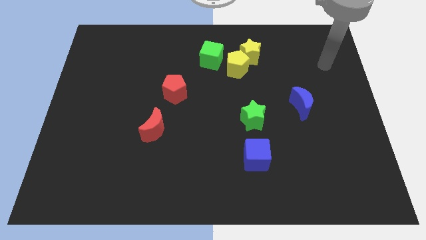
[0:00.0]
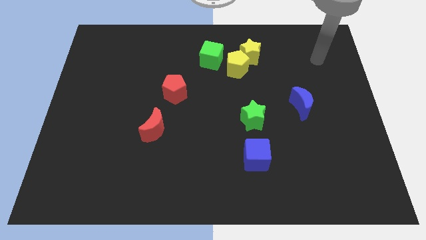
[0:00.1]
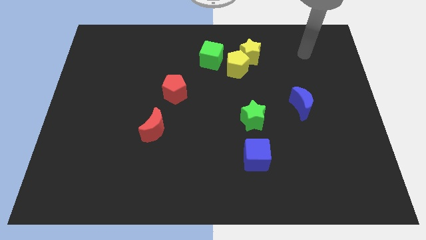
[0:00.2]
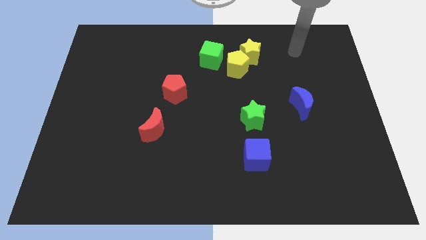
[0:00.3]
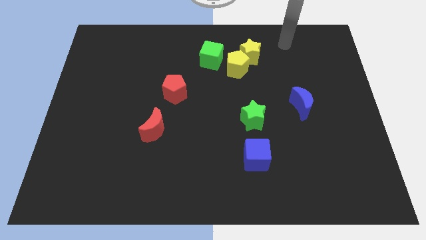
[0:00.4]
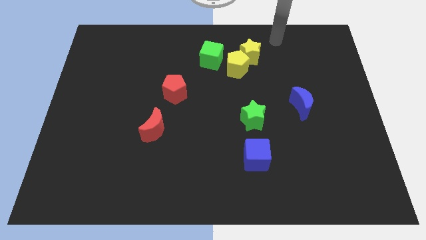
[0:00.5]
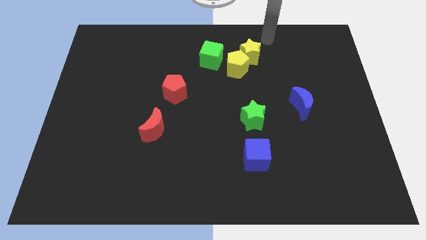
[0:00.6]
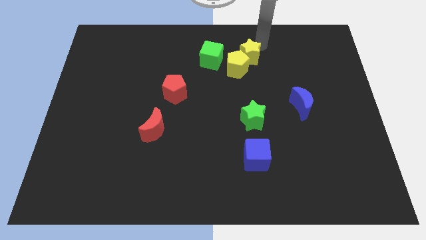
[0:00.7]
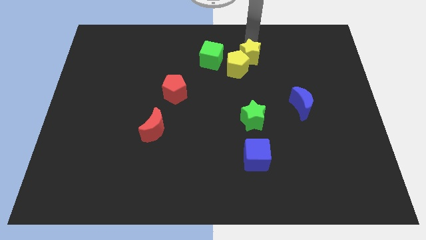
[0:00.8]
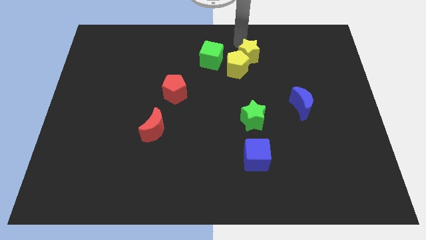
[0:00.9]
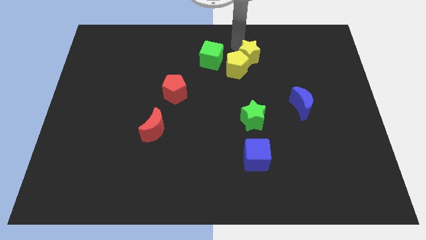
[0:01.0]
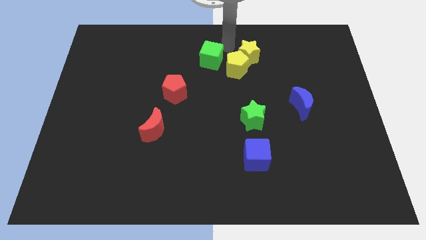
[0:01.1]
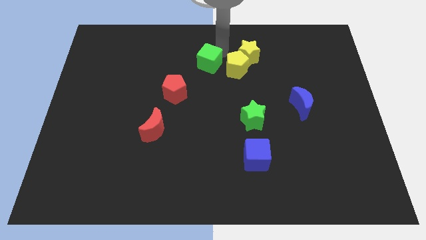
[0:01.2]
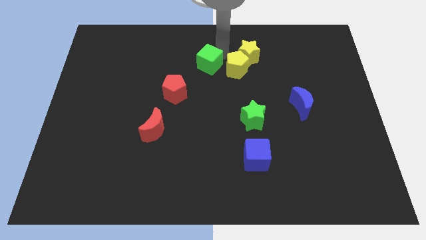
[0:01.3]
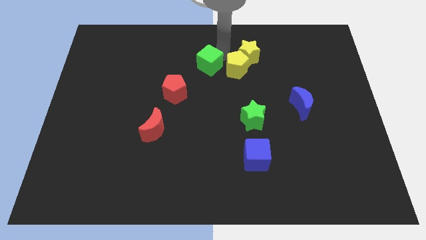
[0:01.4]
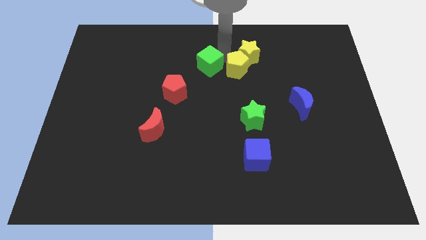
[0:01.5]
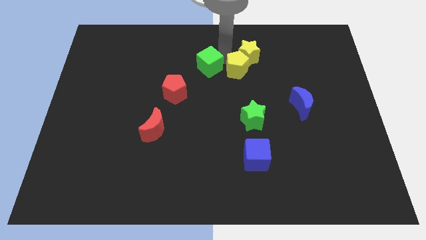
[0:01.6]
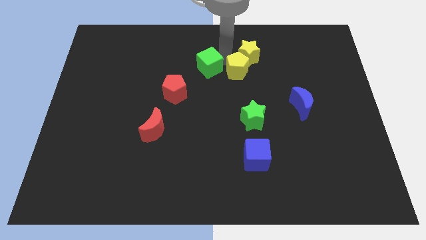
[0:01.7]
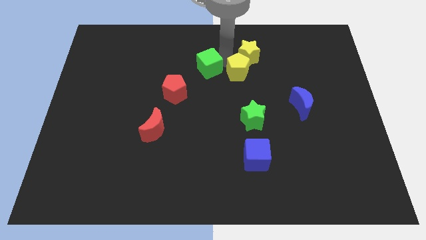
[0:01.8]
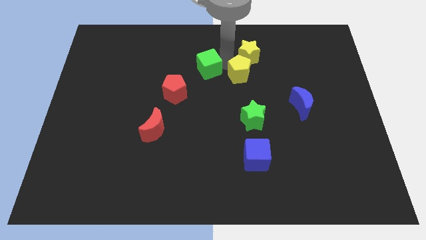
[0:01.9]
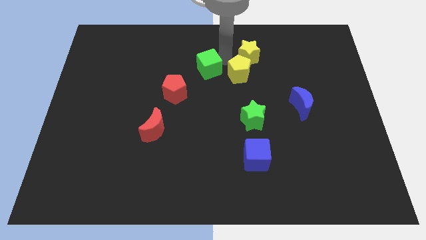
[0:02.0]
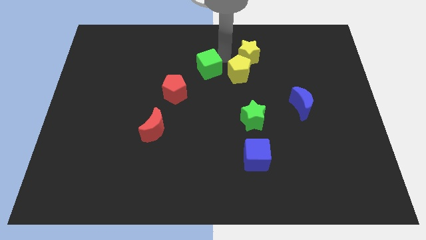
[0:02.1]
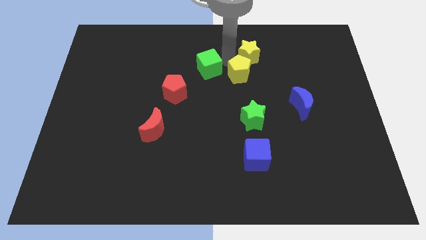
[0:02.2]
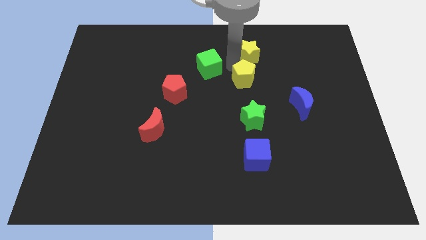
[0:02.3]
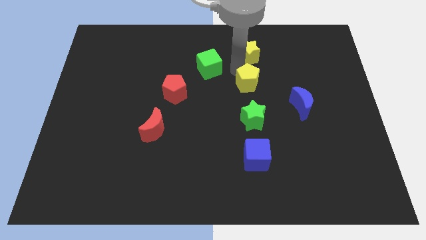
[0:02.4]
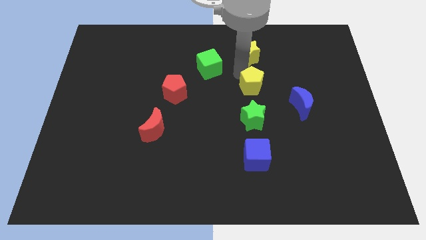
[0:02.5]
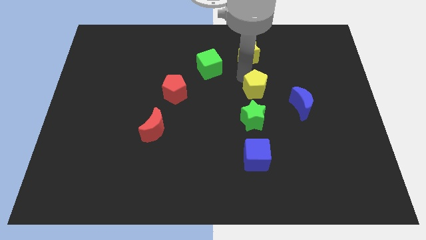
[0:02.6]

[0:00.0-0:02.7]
pull the yellow pentagon apart from the yellow star and green cube

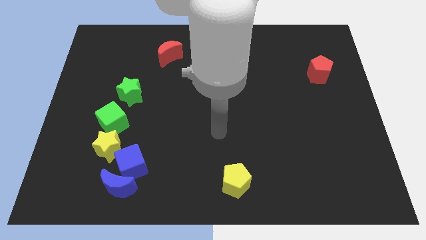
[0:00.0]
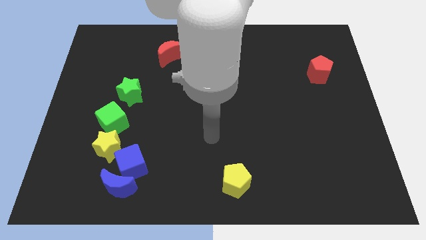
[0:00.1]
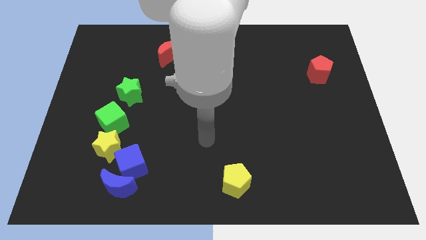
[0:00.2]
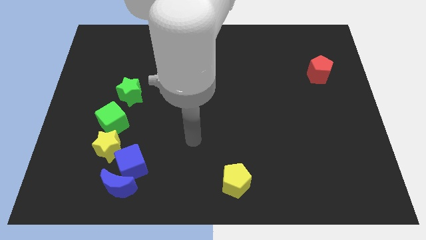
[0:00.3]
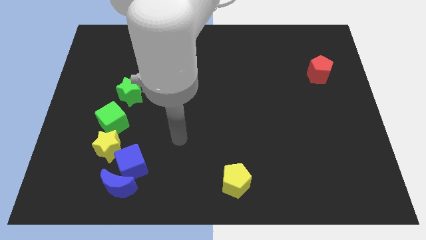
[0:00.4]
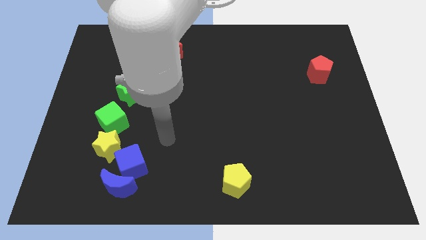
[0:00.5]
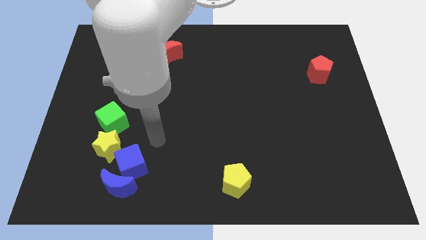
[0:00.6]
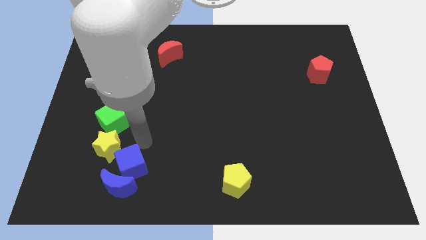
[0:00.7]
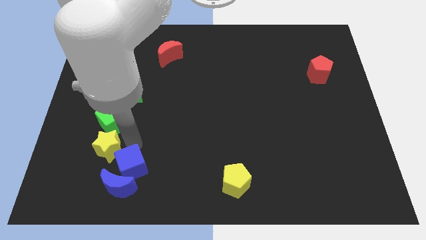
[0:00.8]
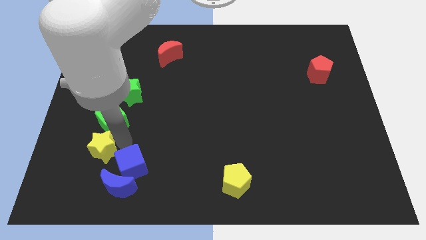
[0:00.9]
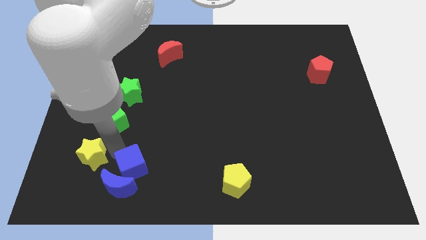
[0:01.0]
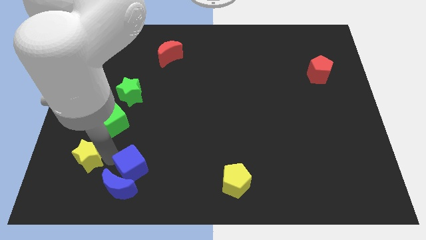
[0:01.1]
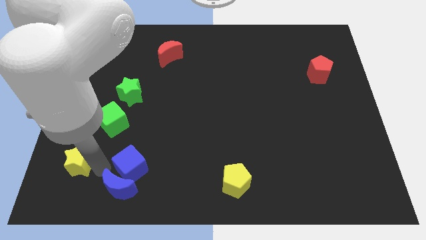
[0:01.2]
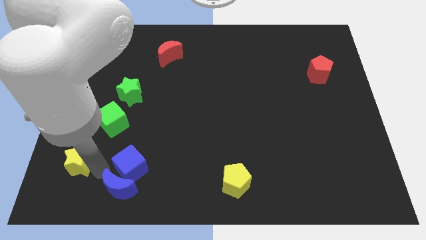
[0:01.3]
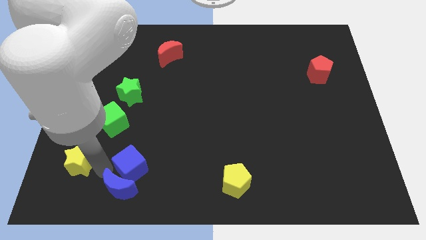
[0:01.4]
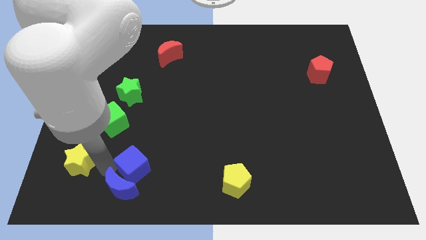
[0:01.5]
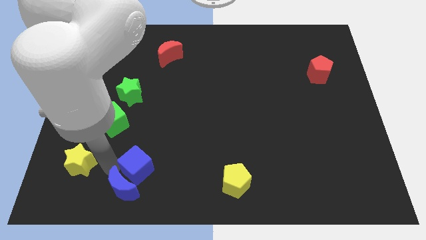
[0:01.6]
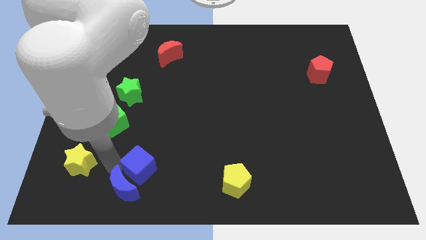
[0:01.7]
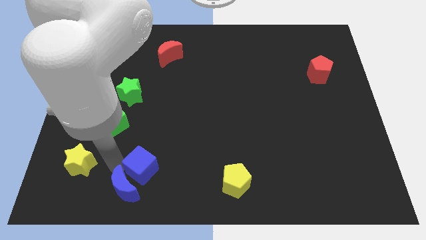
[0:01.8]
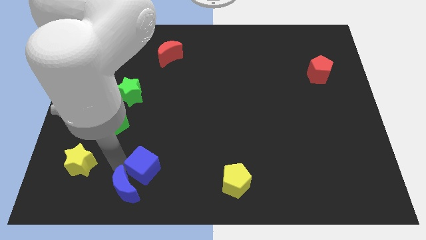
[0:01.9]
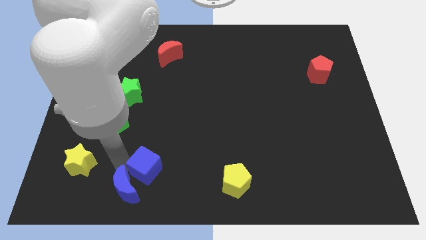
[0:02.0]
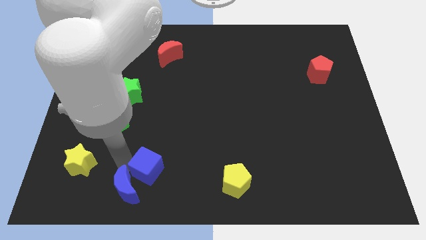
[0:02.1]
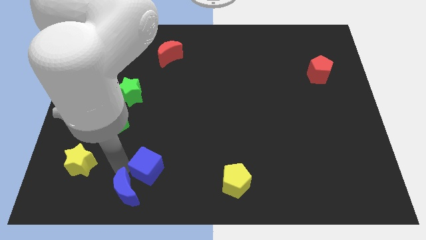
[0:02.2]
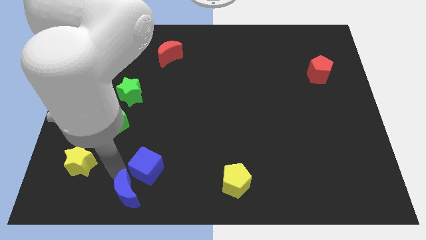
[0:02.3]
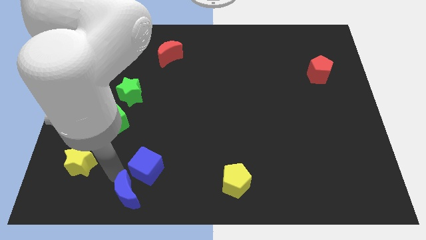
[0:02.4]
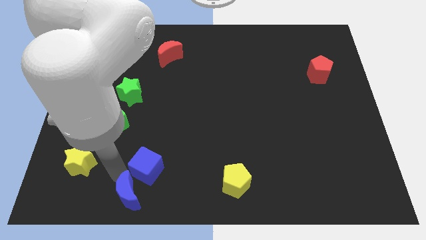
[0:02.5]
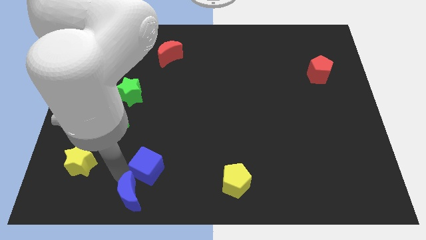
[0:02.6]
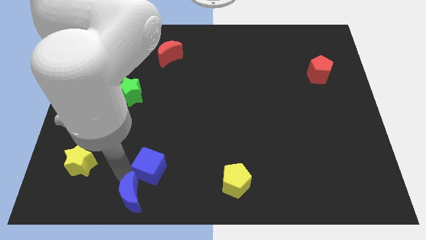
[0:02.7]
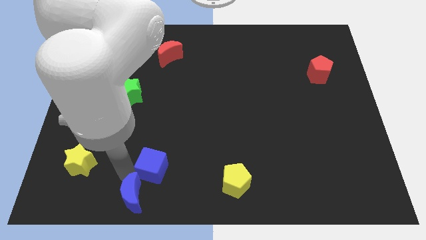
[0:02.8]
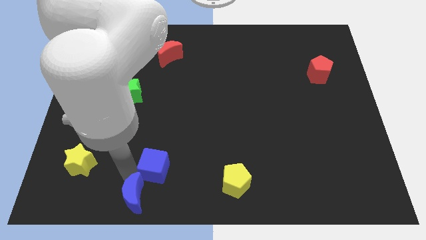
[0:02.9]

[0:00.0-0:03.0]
pull the blue cube apart from the blue moon and yellow star

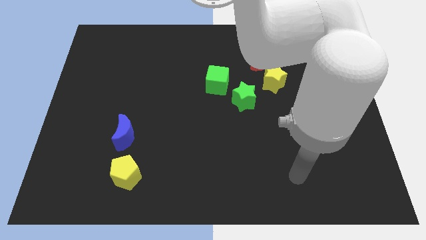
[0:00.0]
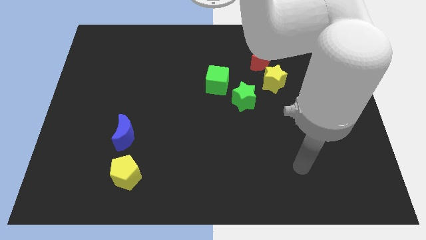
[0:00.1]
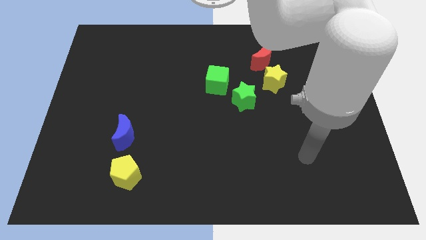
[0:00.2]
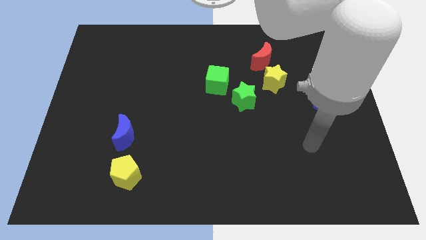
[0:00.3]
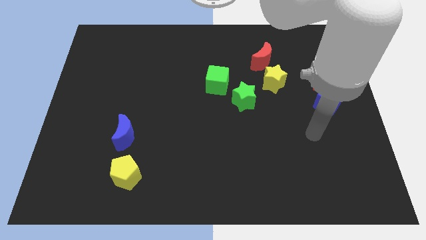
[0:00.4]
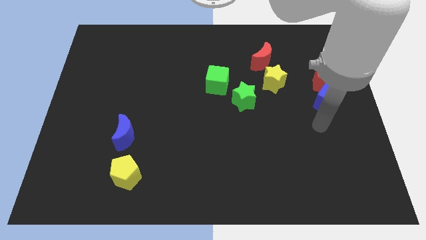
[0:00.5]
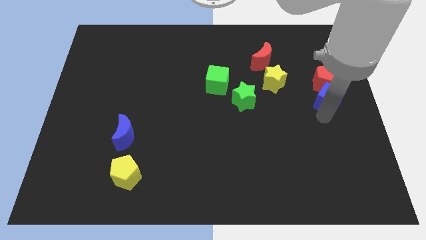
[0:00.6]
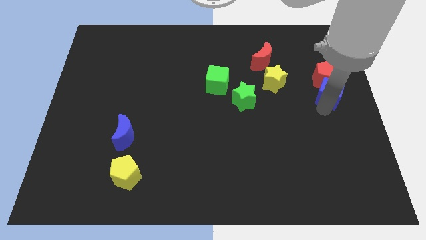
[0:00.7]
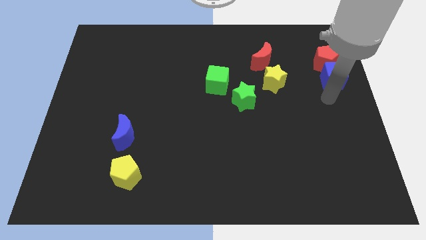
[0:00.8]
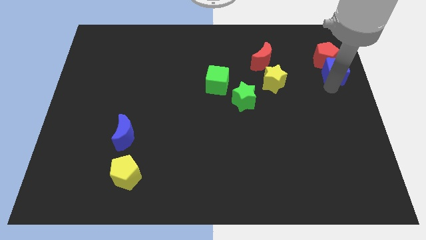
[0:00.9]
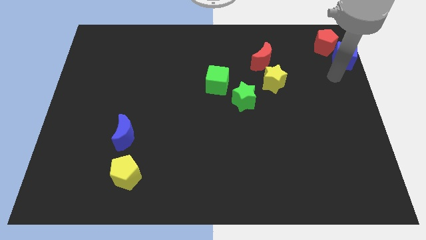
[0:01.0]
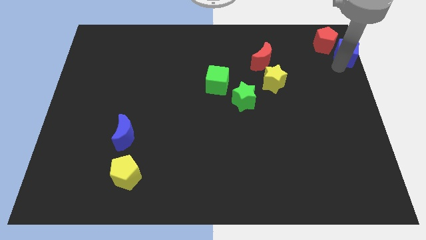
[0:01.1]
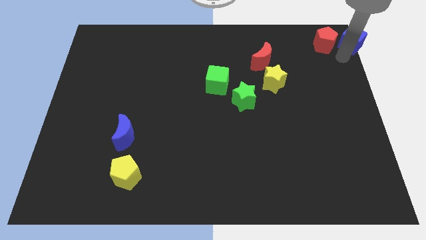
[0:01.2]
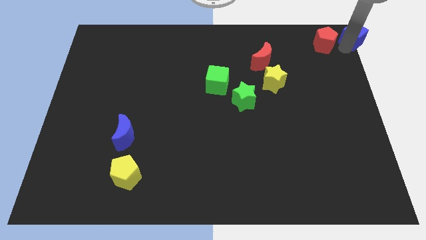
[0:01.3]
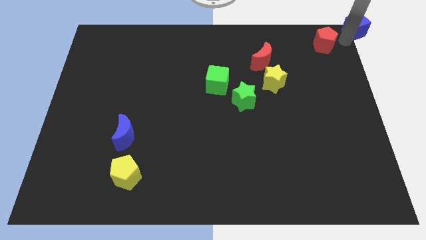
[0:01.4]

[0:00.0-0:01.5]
move the red pentagon away from the blue cube

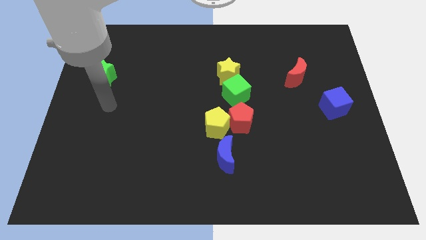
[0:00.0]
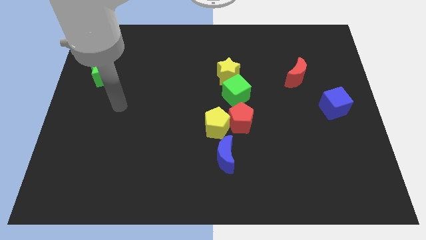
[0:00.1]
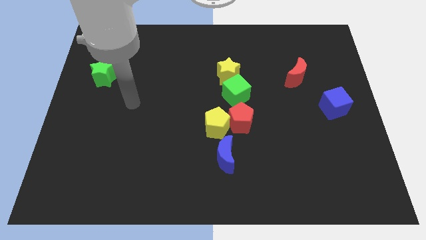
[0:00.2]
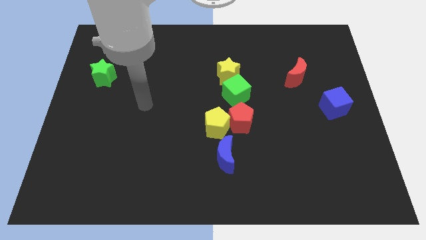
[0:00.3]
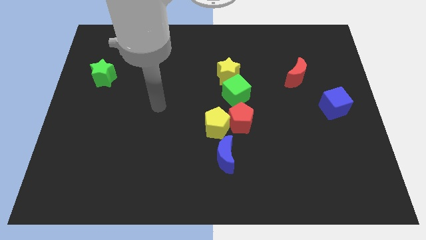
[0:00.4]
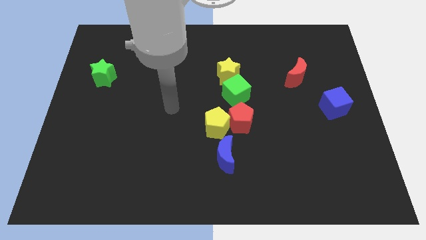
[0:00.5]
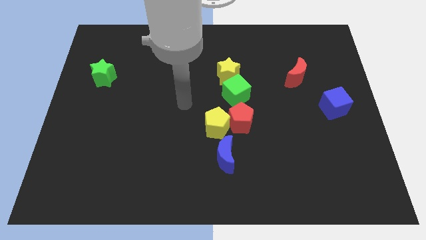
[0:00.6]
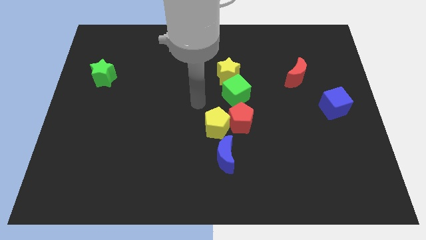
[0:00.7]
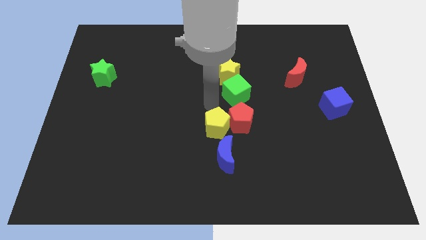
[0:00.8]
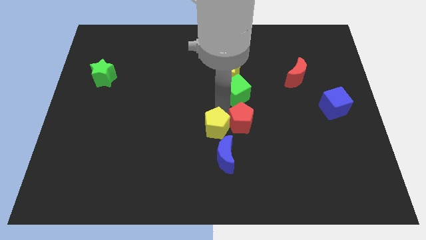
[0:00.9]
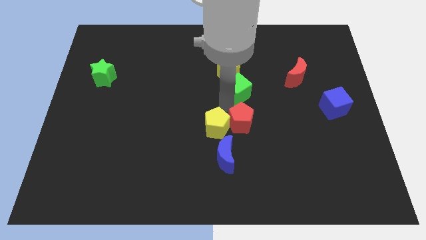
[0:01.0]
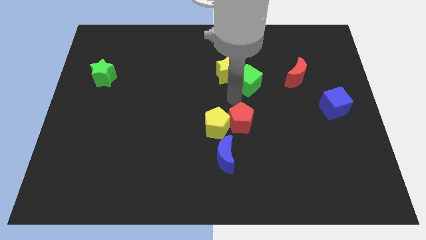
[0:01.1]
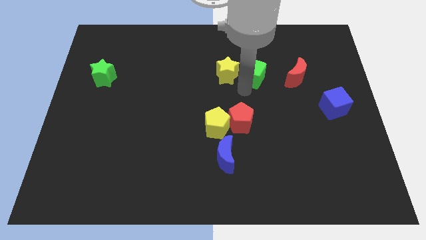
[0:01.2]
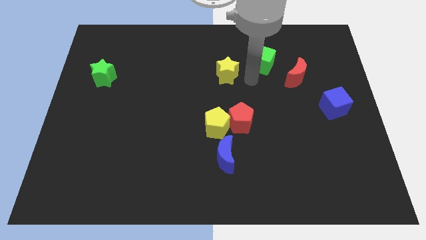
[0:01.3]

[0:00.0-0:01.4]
separate the yellow star from the green cube

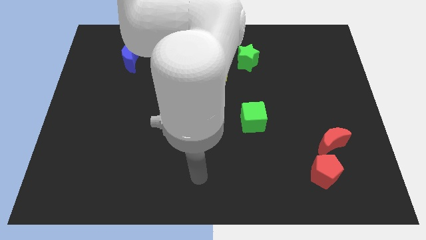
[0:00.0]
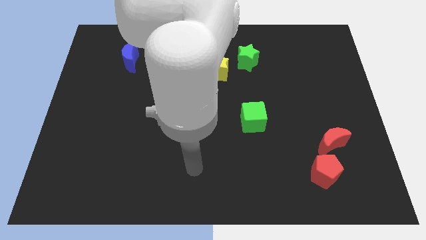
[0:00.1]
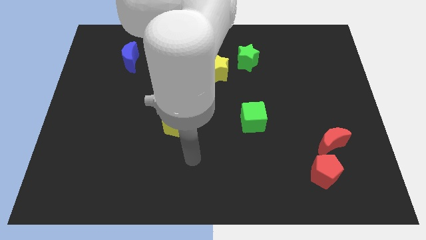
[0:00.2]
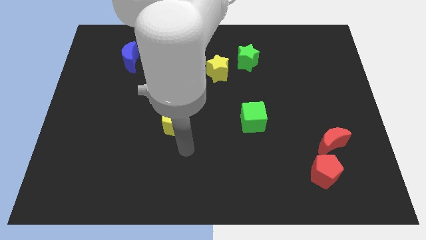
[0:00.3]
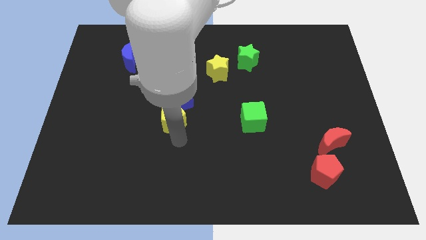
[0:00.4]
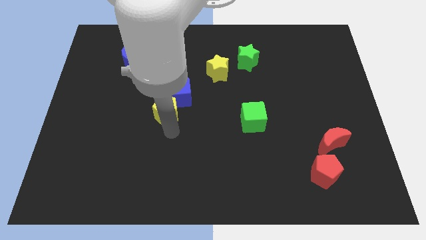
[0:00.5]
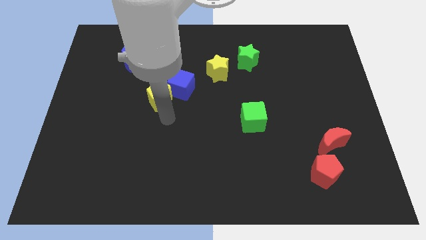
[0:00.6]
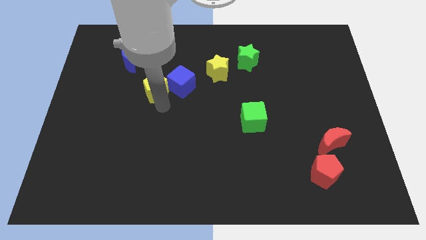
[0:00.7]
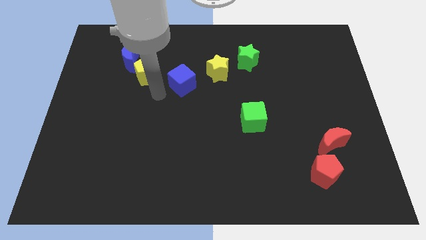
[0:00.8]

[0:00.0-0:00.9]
pull the blue cube apart from the yellow pentagon
